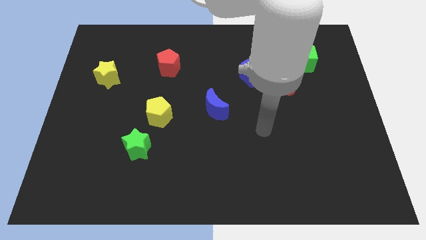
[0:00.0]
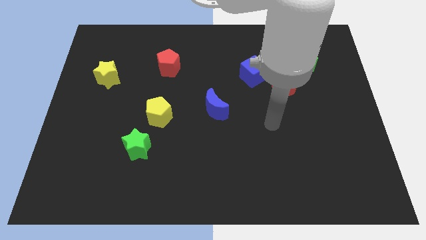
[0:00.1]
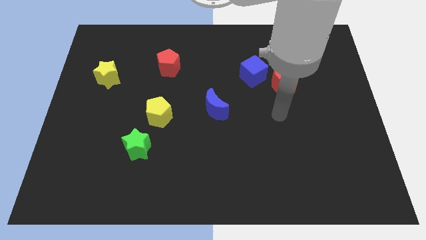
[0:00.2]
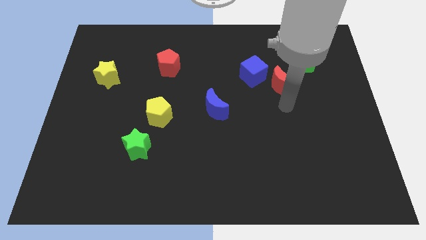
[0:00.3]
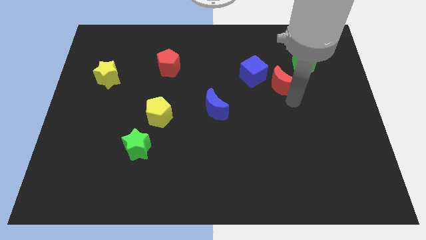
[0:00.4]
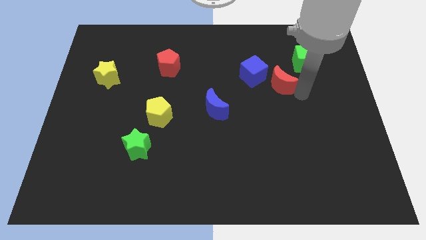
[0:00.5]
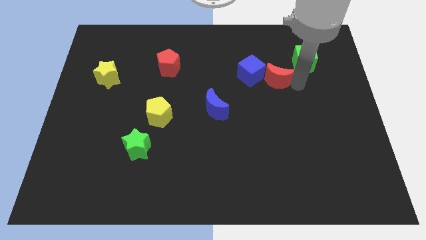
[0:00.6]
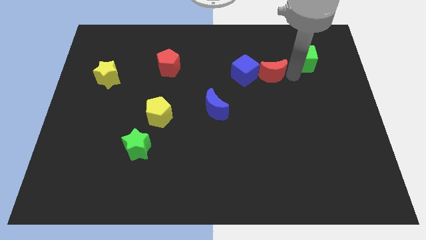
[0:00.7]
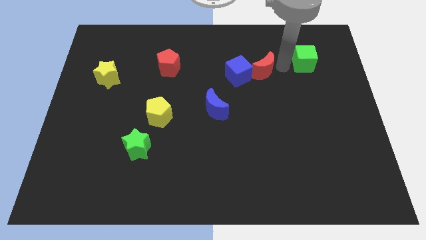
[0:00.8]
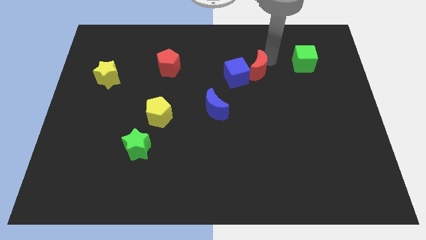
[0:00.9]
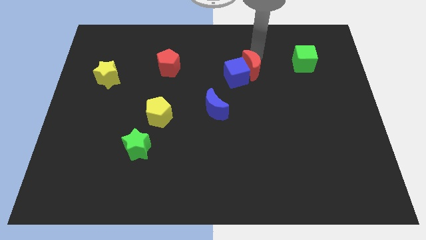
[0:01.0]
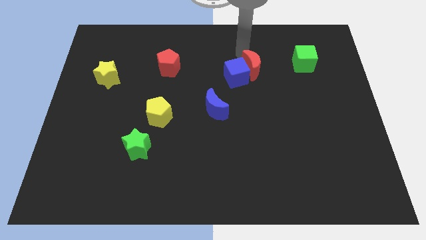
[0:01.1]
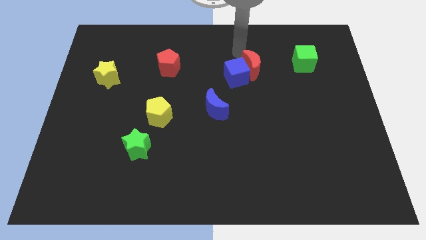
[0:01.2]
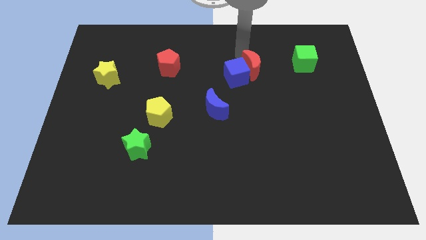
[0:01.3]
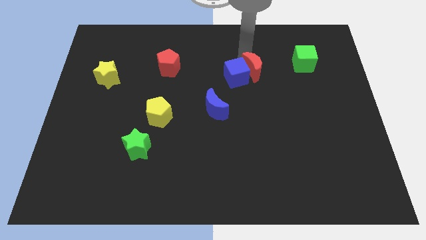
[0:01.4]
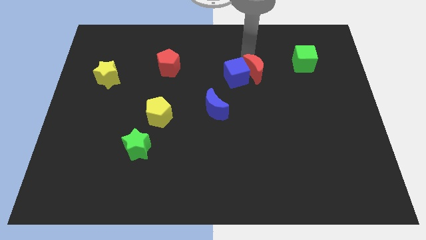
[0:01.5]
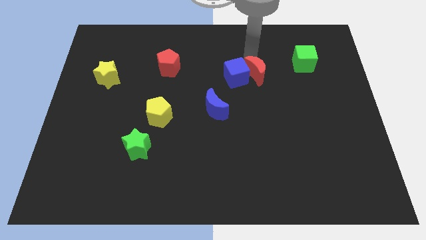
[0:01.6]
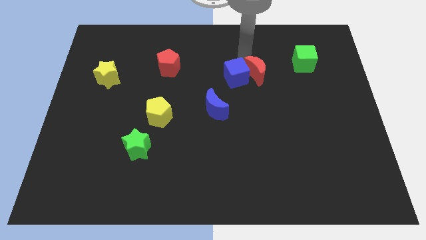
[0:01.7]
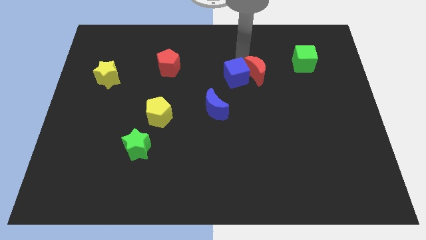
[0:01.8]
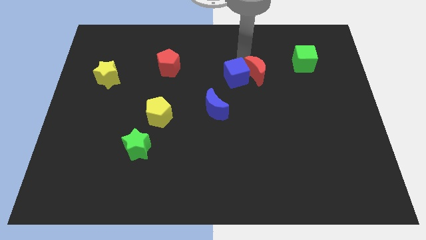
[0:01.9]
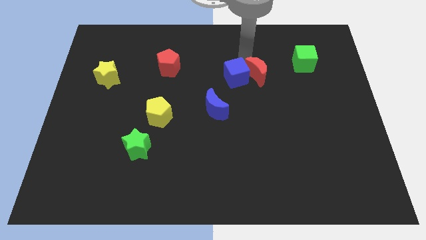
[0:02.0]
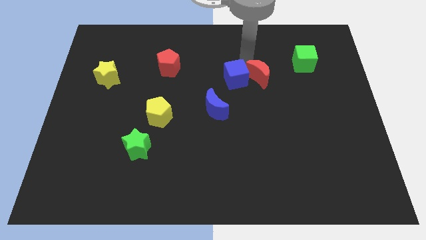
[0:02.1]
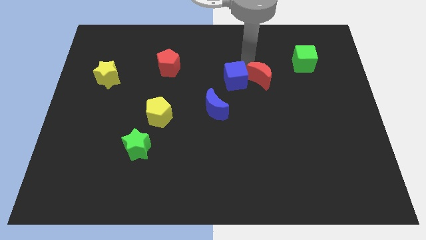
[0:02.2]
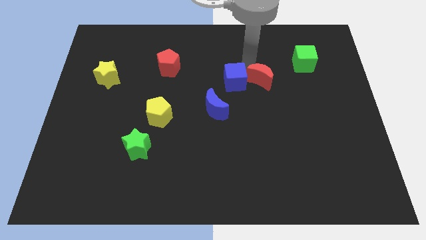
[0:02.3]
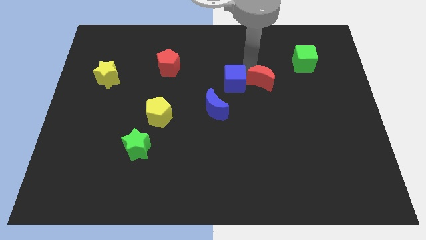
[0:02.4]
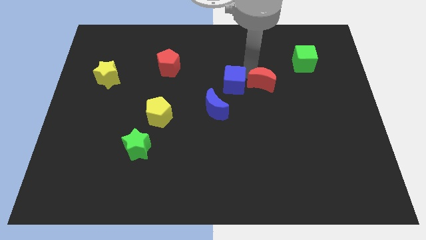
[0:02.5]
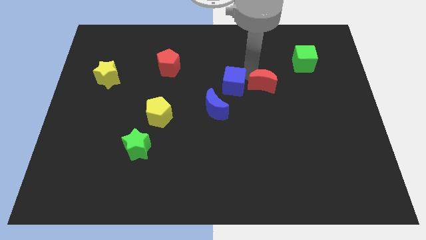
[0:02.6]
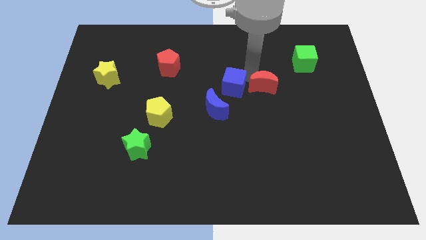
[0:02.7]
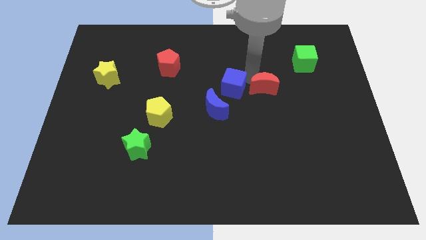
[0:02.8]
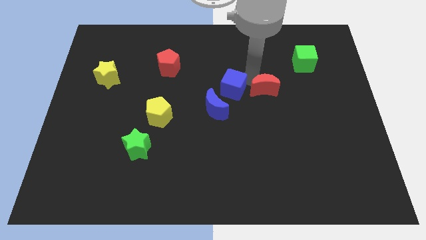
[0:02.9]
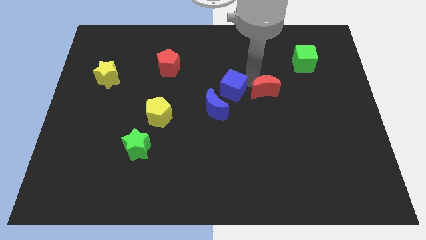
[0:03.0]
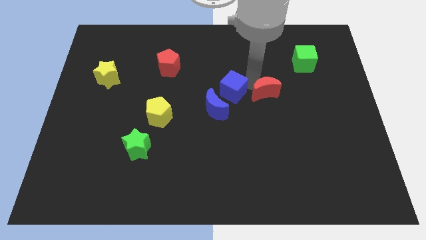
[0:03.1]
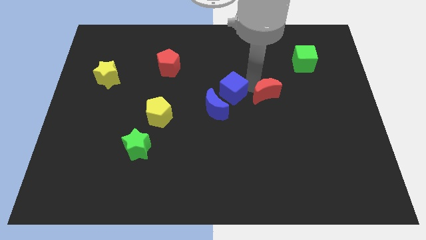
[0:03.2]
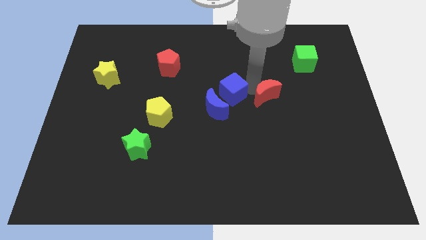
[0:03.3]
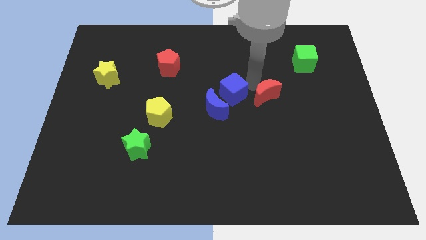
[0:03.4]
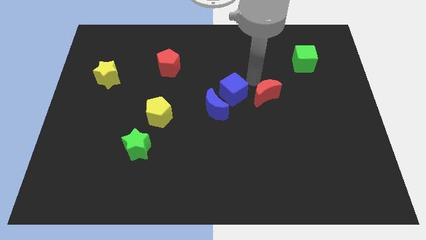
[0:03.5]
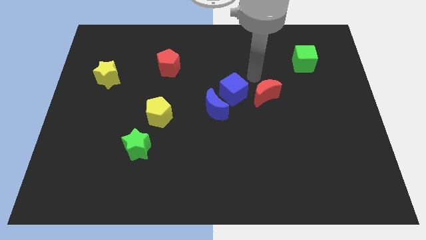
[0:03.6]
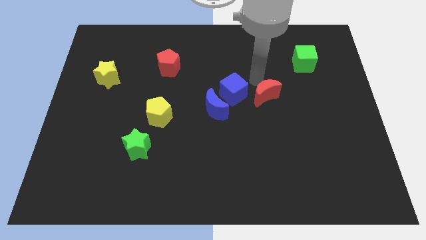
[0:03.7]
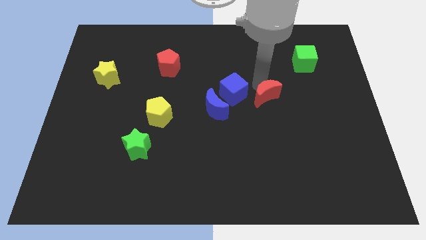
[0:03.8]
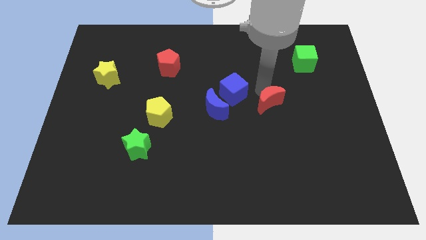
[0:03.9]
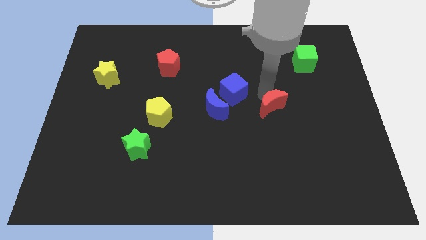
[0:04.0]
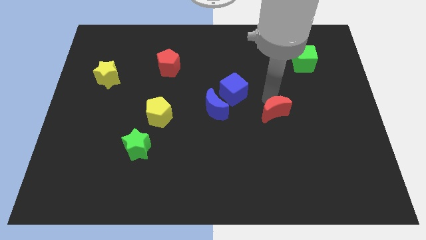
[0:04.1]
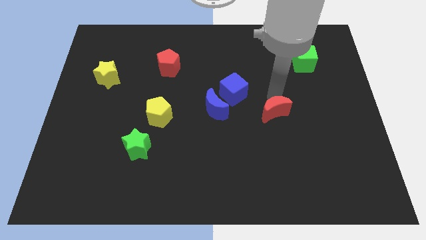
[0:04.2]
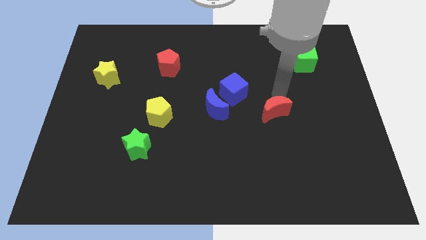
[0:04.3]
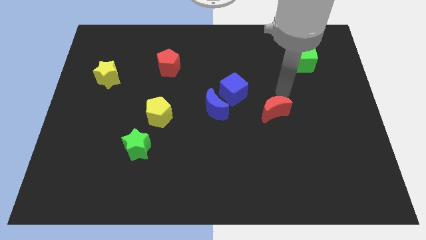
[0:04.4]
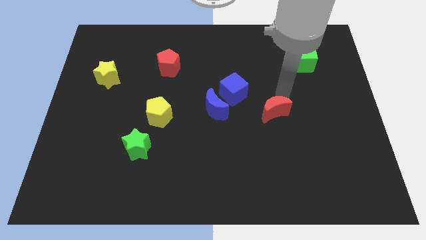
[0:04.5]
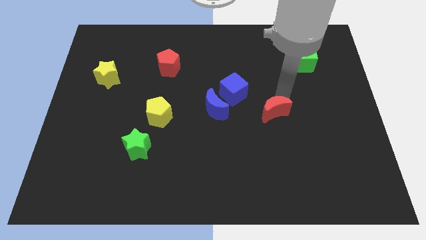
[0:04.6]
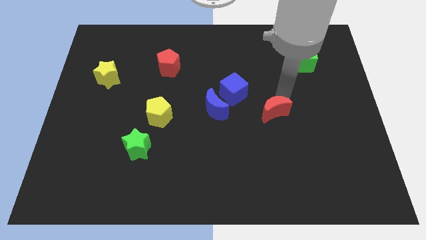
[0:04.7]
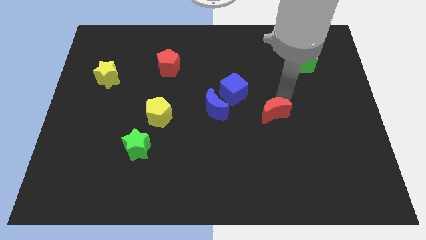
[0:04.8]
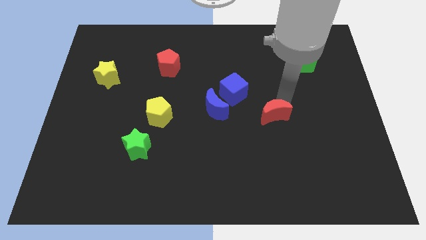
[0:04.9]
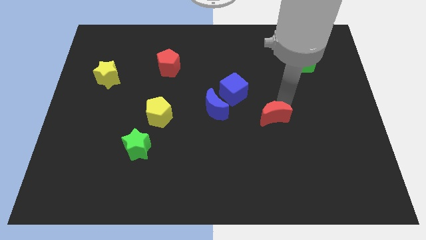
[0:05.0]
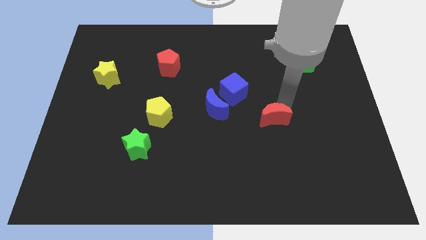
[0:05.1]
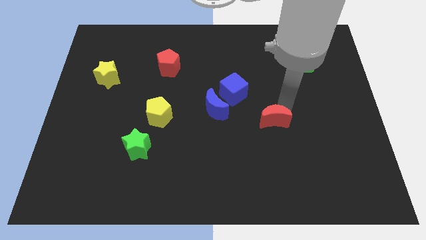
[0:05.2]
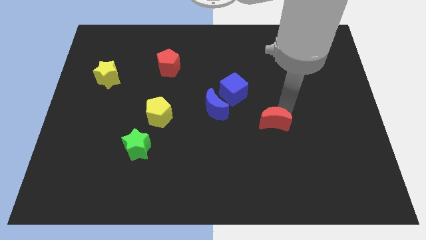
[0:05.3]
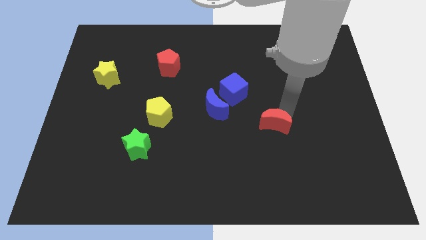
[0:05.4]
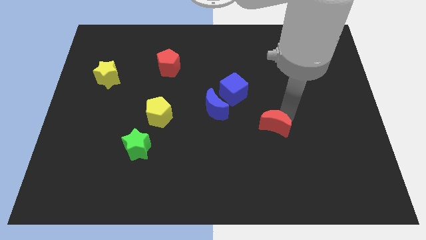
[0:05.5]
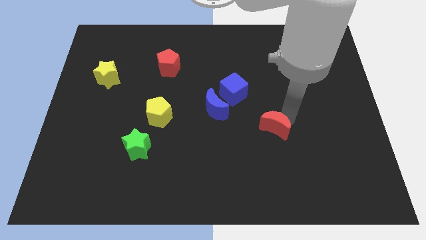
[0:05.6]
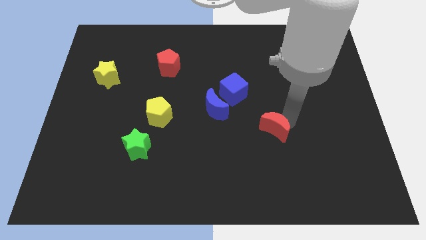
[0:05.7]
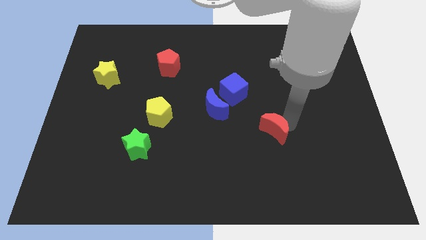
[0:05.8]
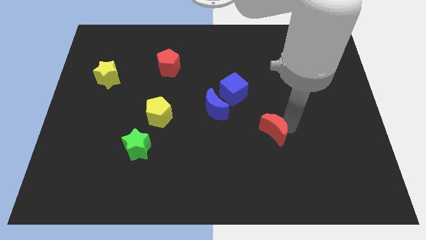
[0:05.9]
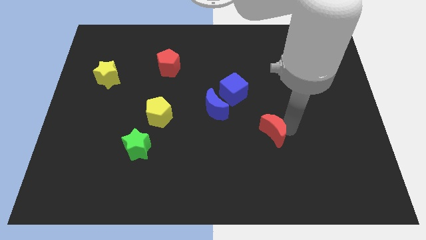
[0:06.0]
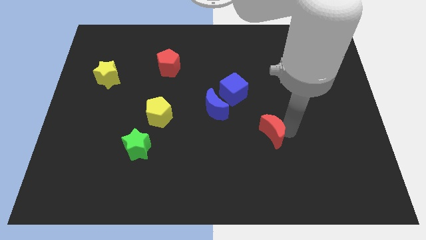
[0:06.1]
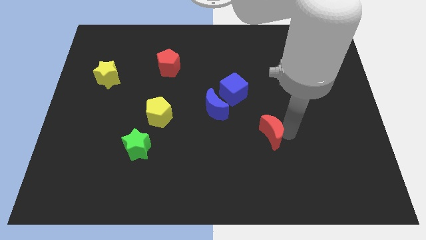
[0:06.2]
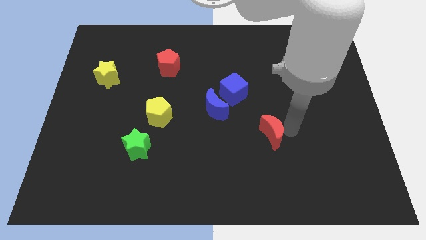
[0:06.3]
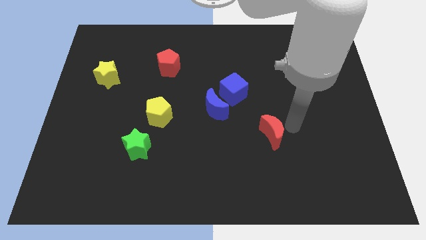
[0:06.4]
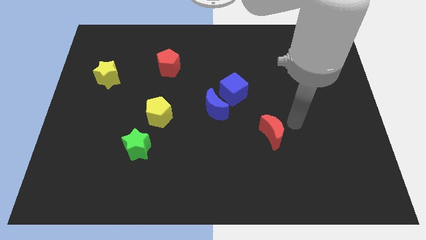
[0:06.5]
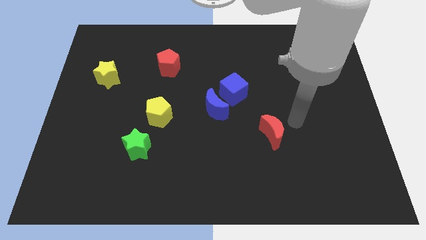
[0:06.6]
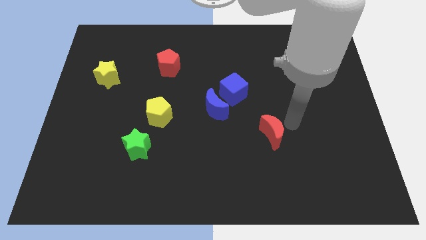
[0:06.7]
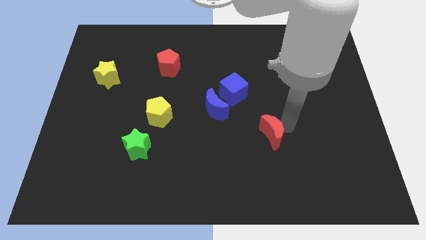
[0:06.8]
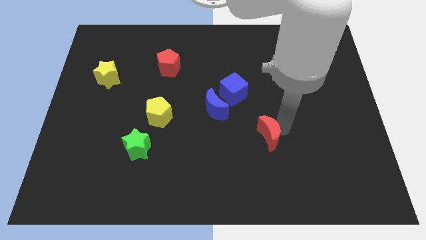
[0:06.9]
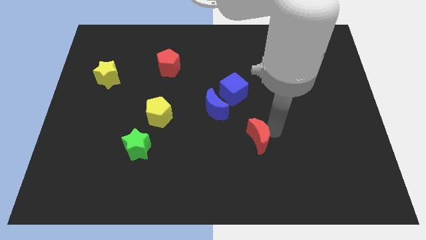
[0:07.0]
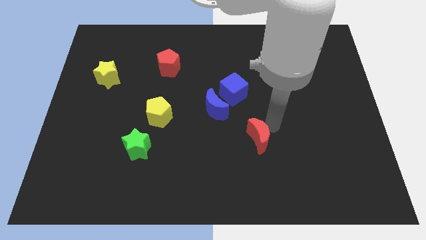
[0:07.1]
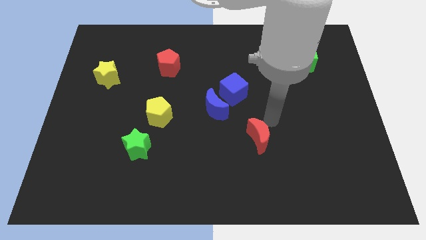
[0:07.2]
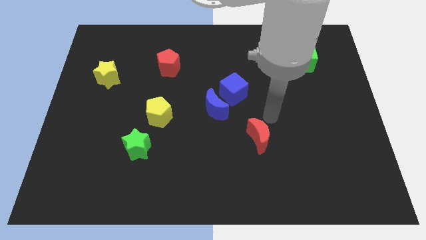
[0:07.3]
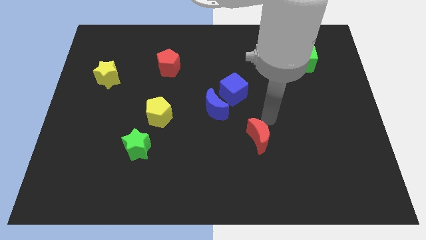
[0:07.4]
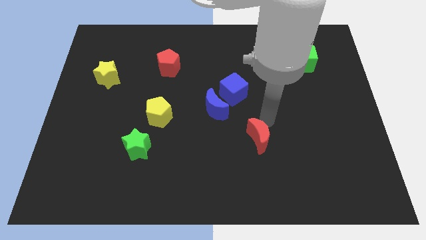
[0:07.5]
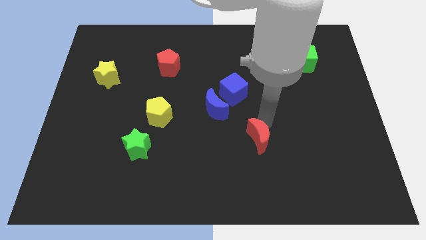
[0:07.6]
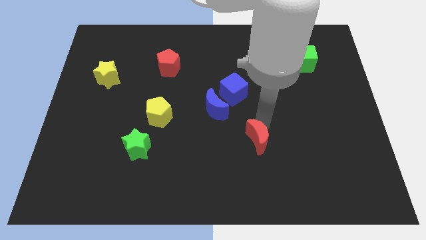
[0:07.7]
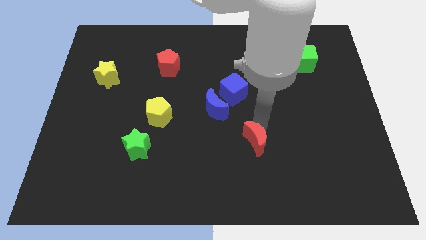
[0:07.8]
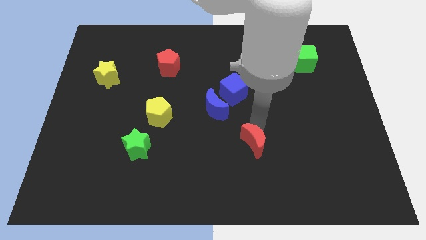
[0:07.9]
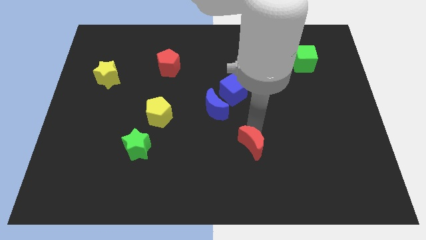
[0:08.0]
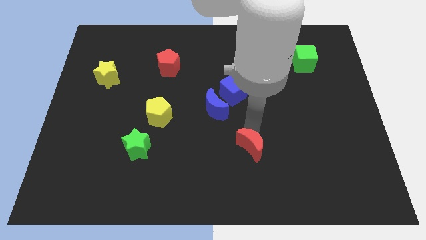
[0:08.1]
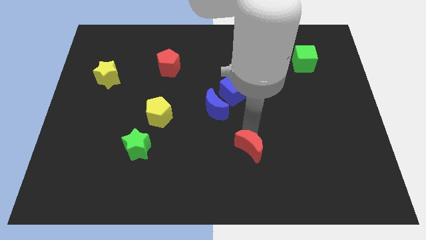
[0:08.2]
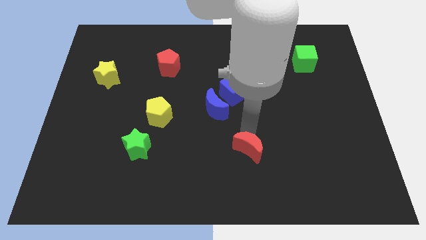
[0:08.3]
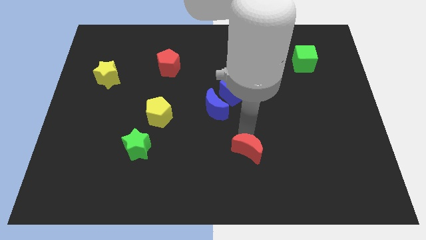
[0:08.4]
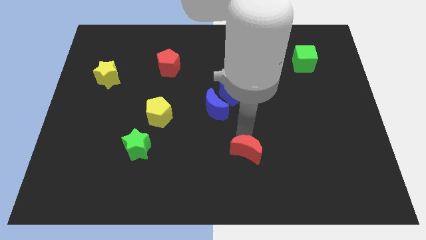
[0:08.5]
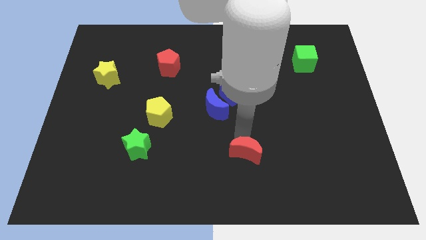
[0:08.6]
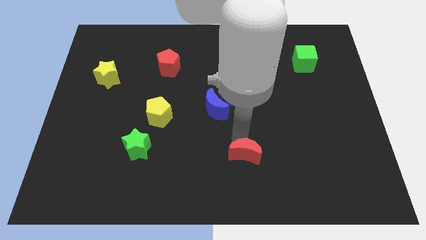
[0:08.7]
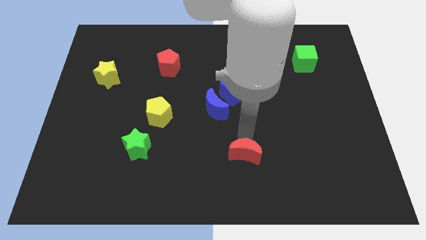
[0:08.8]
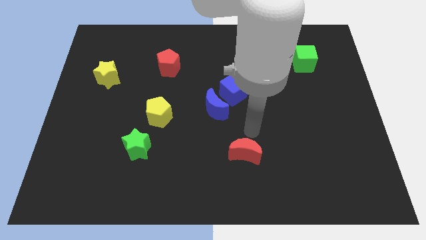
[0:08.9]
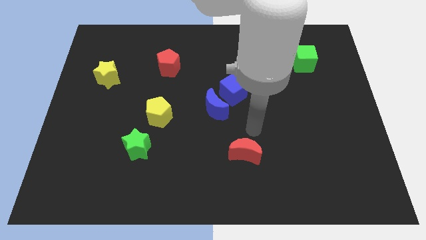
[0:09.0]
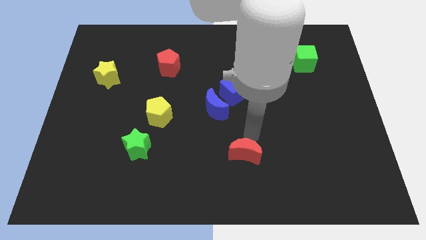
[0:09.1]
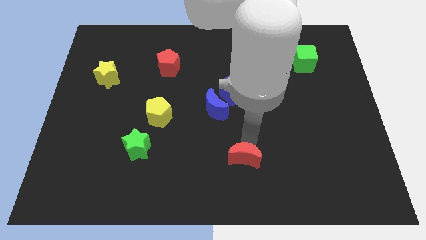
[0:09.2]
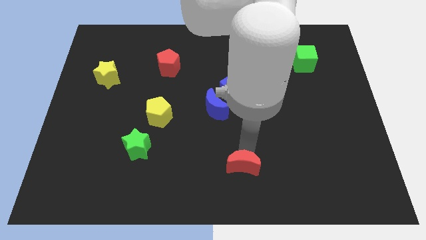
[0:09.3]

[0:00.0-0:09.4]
move the red moon to the bottom
